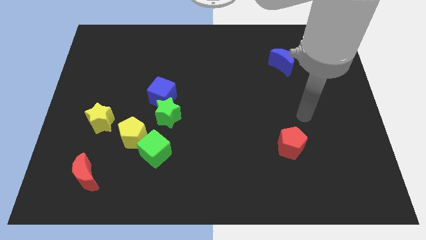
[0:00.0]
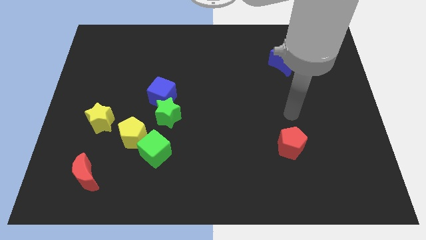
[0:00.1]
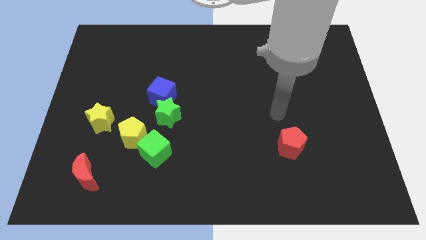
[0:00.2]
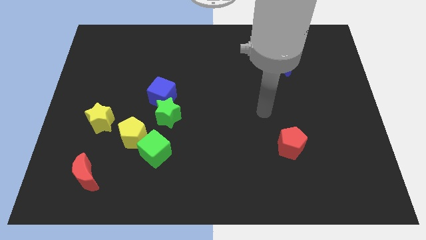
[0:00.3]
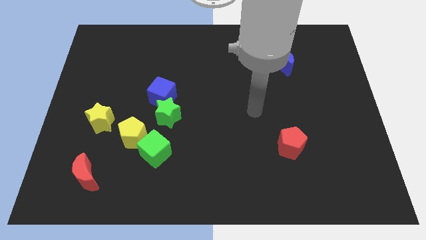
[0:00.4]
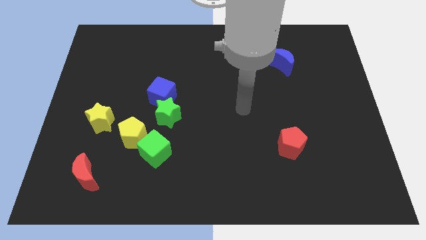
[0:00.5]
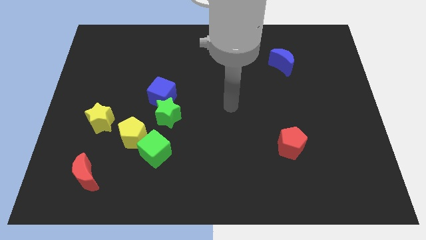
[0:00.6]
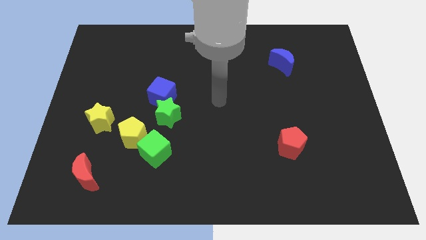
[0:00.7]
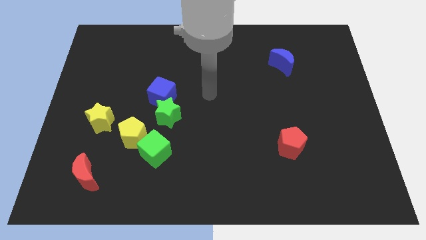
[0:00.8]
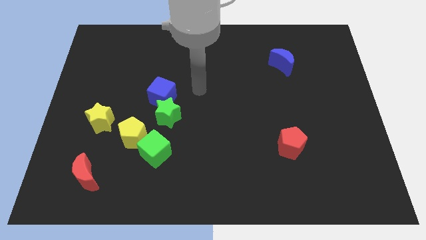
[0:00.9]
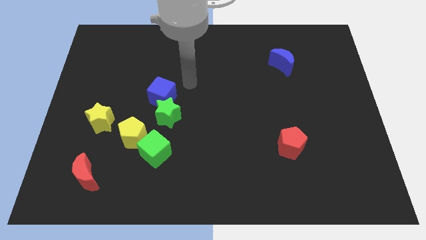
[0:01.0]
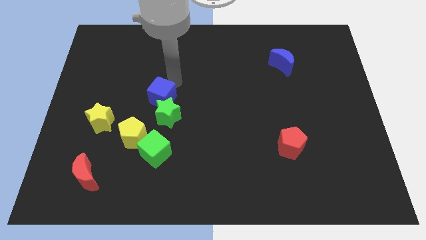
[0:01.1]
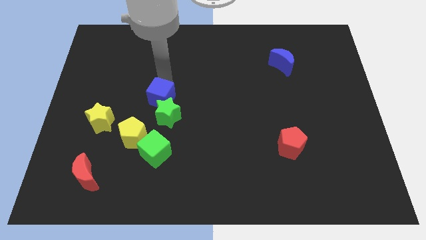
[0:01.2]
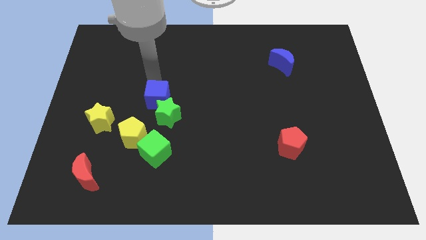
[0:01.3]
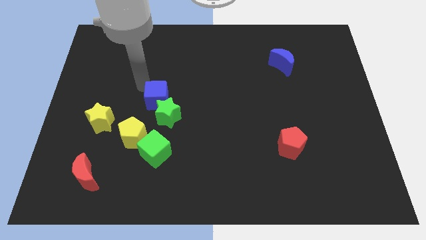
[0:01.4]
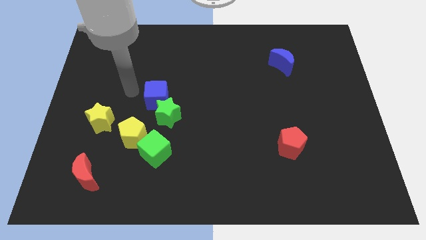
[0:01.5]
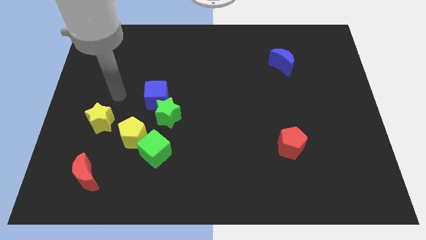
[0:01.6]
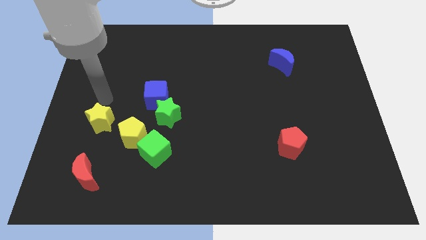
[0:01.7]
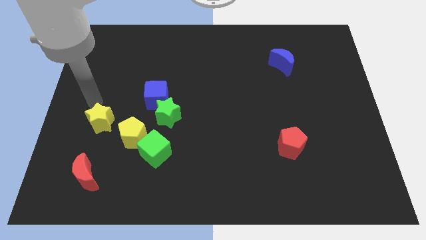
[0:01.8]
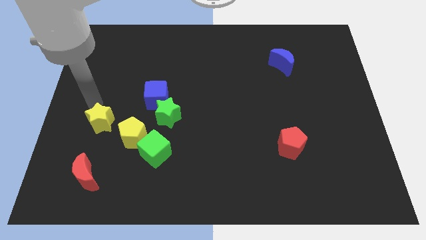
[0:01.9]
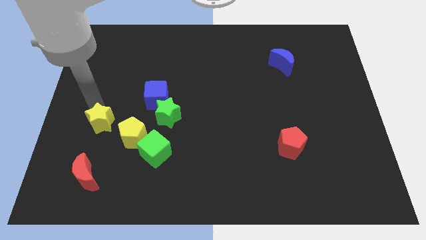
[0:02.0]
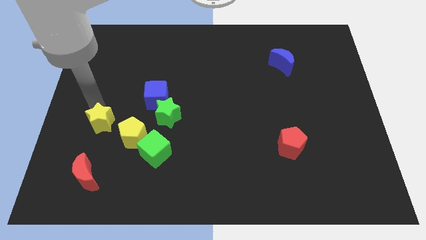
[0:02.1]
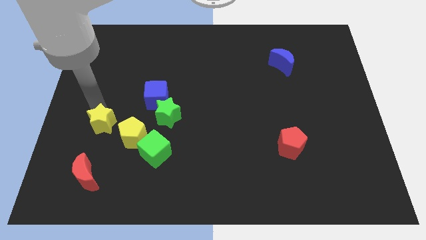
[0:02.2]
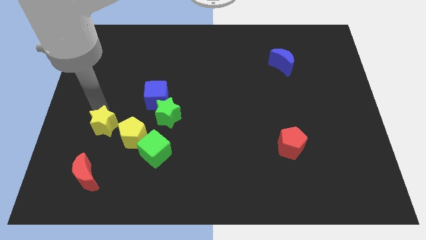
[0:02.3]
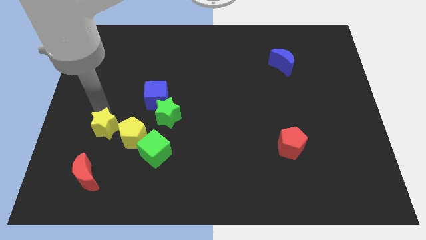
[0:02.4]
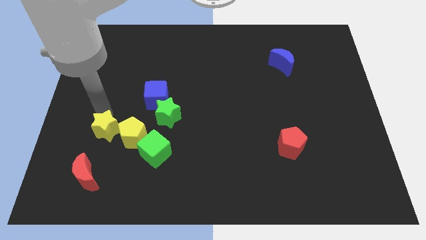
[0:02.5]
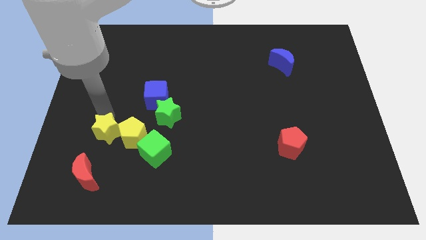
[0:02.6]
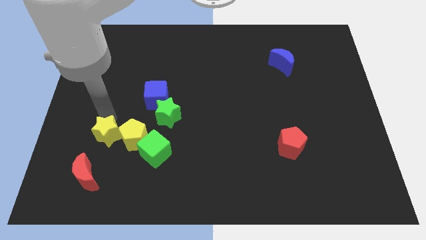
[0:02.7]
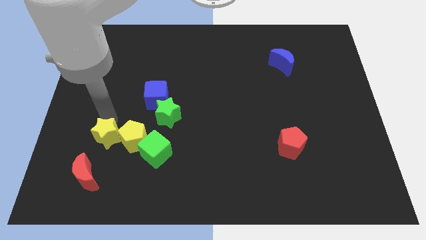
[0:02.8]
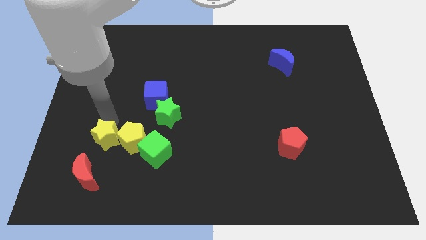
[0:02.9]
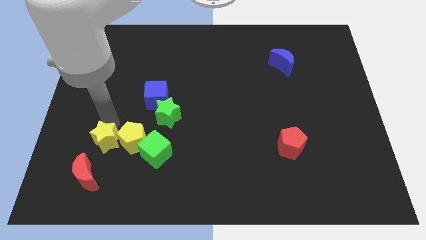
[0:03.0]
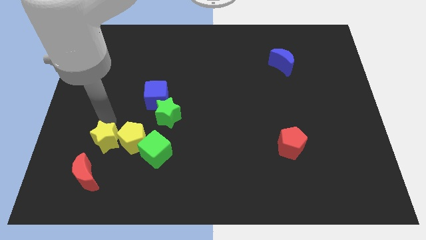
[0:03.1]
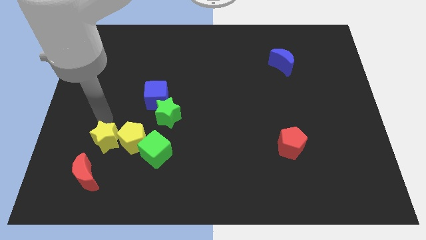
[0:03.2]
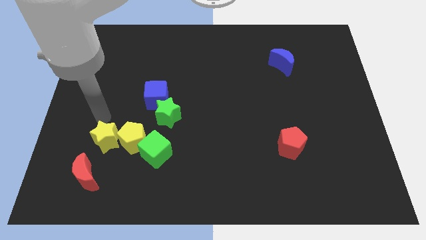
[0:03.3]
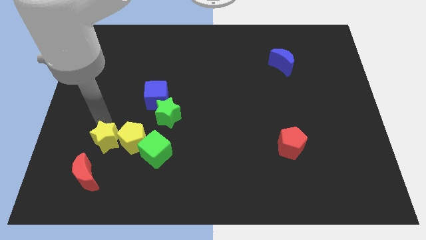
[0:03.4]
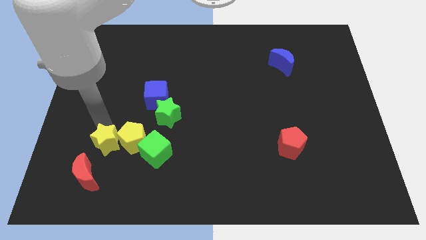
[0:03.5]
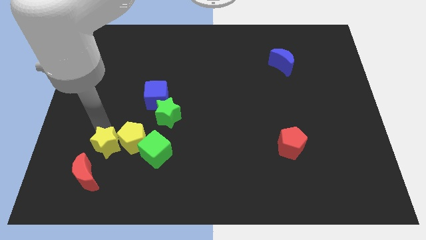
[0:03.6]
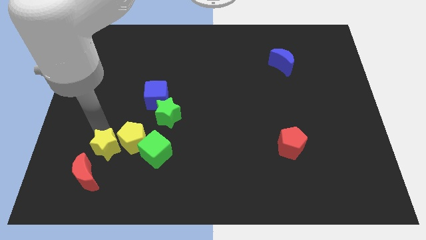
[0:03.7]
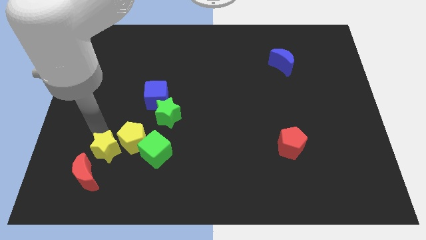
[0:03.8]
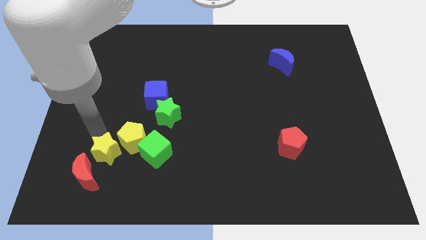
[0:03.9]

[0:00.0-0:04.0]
move the yellow star diagonally down and to the right a little bit

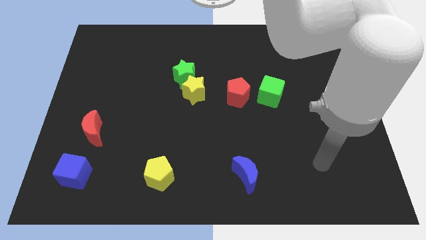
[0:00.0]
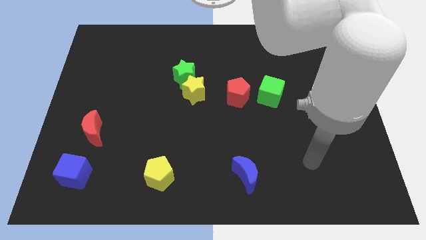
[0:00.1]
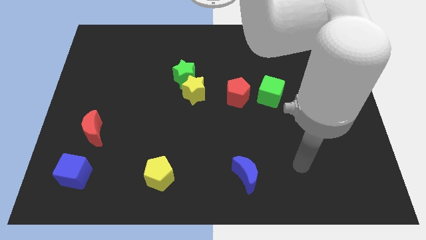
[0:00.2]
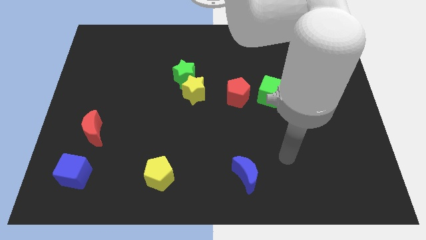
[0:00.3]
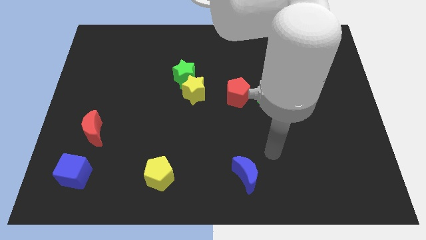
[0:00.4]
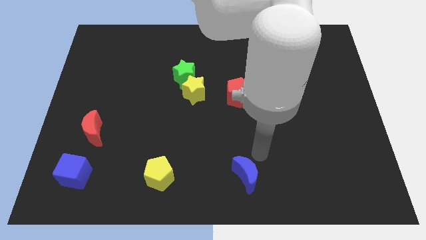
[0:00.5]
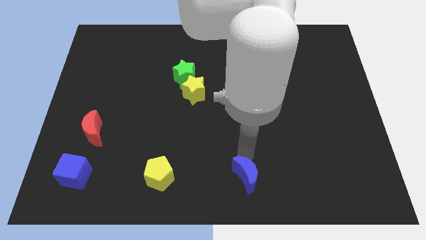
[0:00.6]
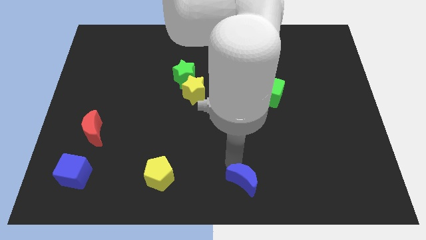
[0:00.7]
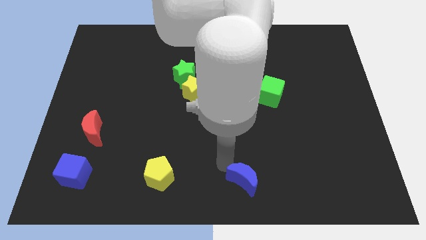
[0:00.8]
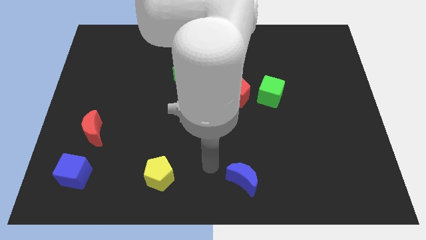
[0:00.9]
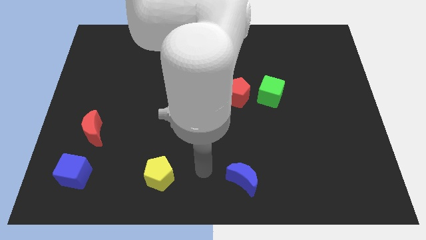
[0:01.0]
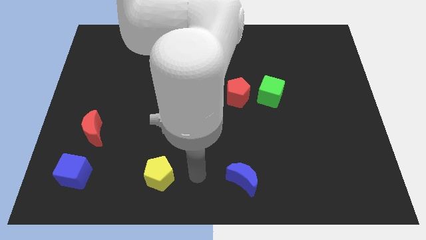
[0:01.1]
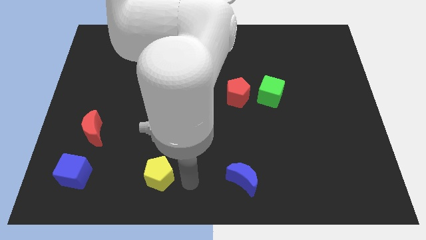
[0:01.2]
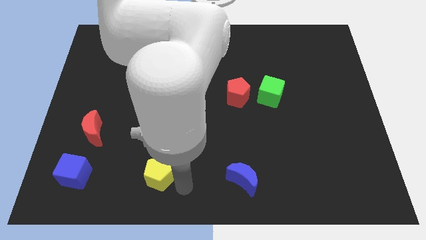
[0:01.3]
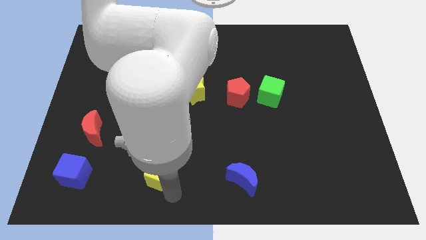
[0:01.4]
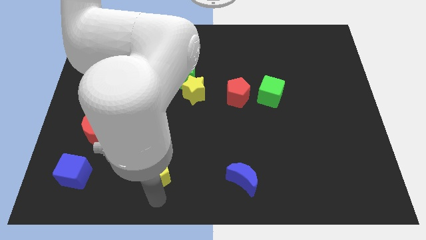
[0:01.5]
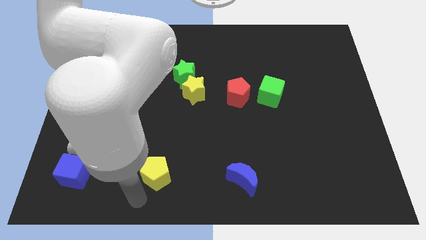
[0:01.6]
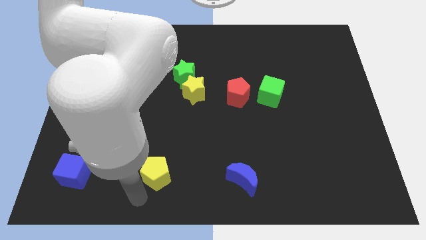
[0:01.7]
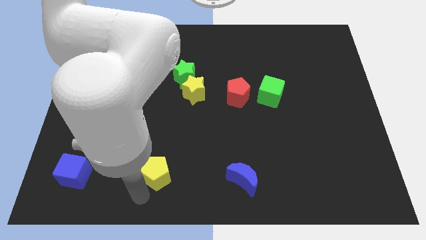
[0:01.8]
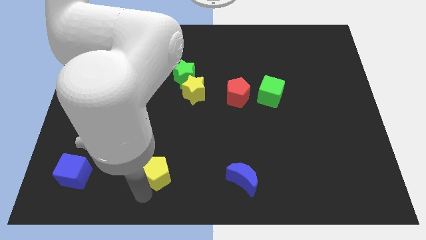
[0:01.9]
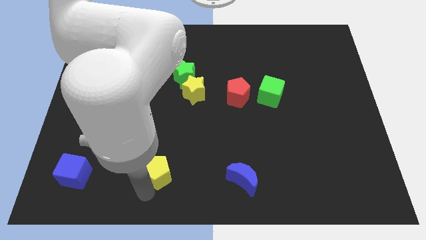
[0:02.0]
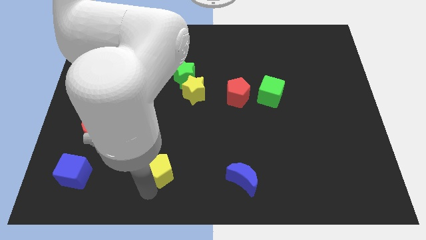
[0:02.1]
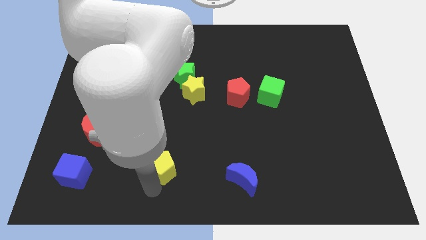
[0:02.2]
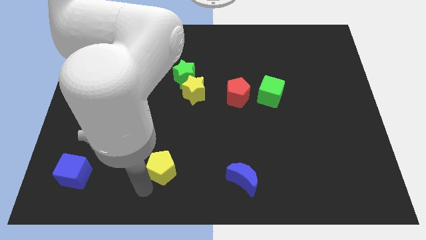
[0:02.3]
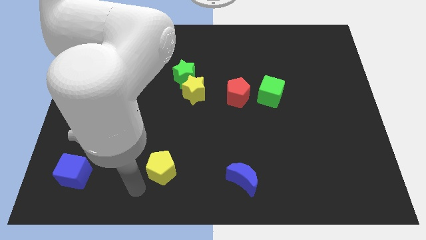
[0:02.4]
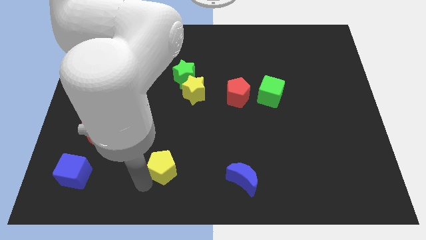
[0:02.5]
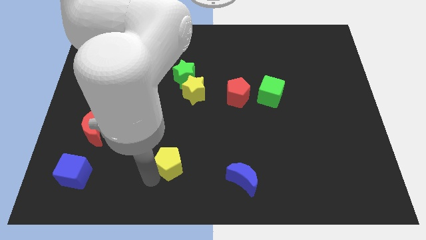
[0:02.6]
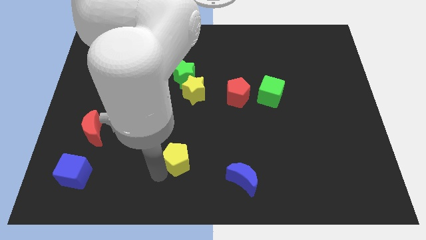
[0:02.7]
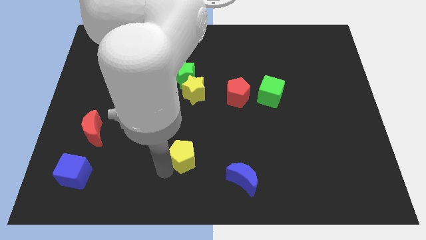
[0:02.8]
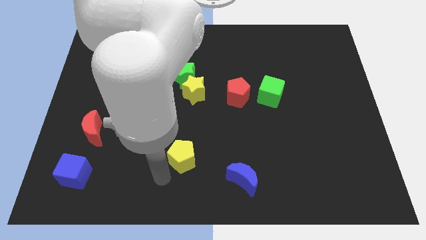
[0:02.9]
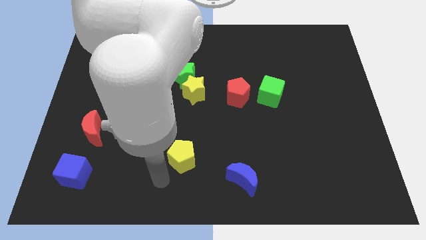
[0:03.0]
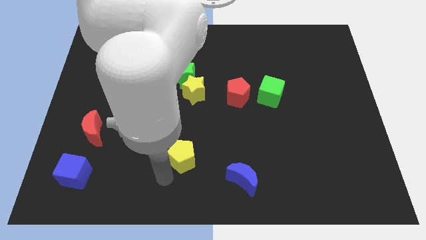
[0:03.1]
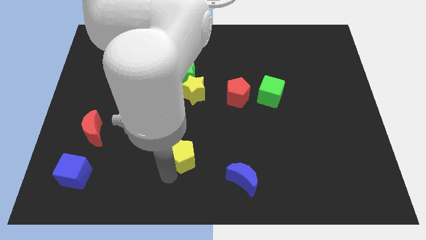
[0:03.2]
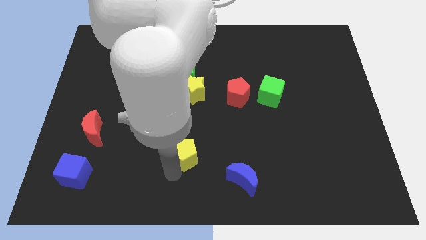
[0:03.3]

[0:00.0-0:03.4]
move the yellow pentagon diagonally upwards and to the right a bit

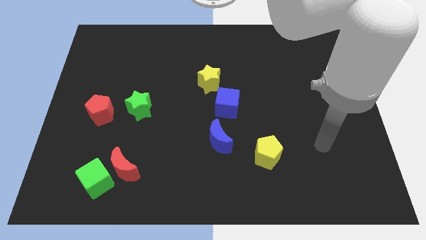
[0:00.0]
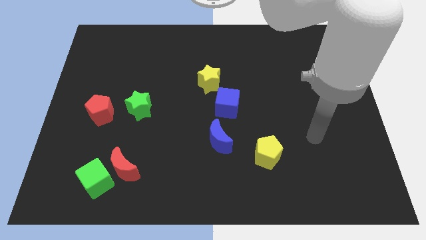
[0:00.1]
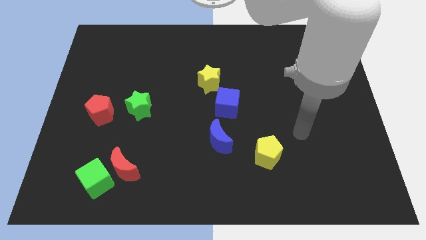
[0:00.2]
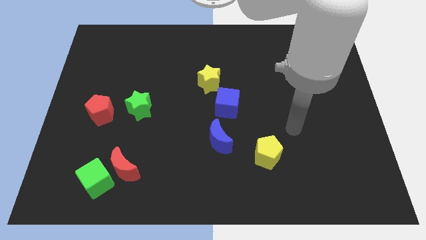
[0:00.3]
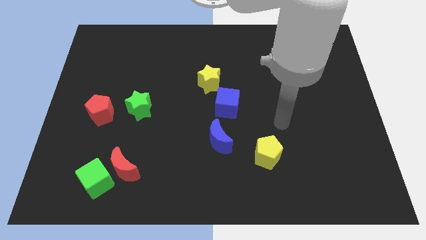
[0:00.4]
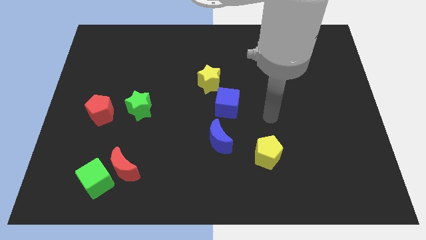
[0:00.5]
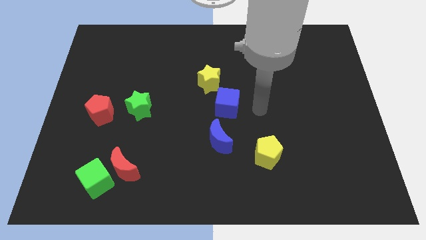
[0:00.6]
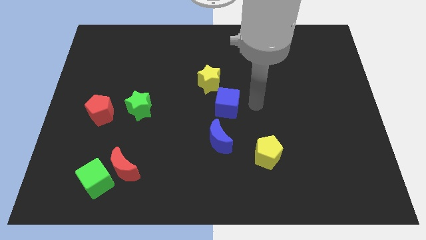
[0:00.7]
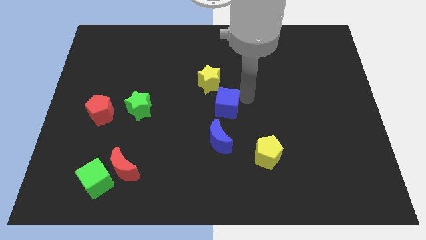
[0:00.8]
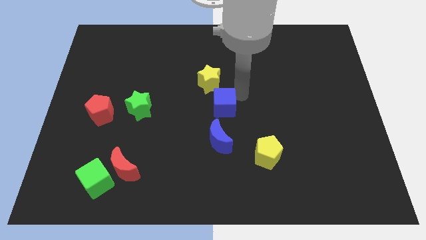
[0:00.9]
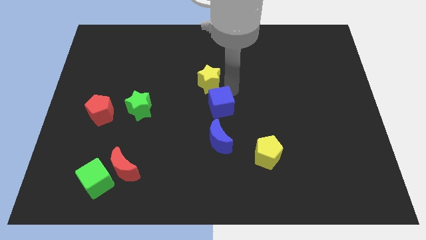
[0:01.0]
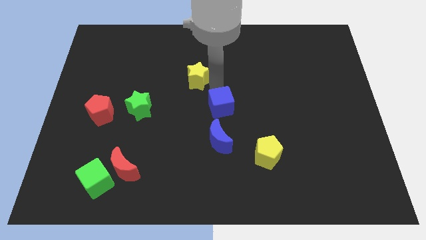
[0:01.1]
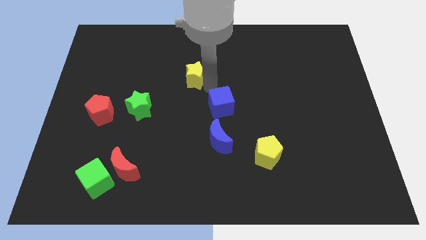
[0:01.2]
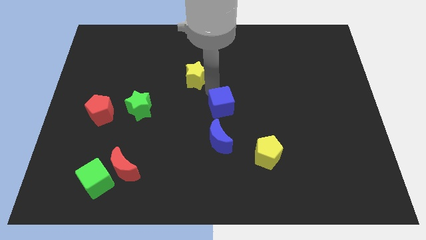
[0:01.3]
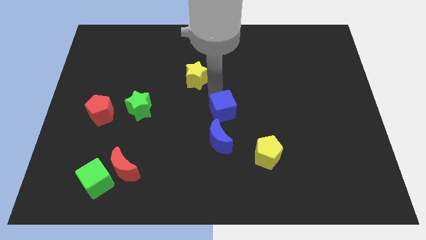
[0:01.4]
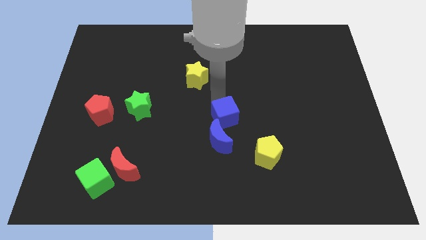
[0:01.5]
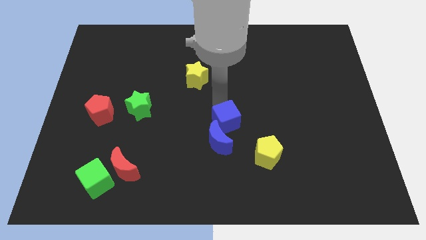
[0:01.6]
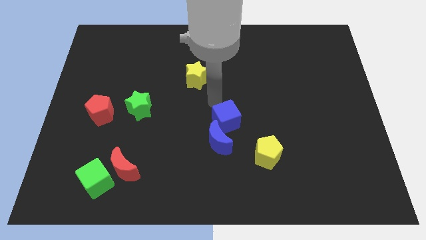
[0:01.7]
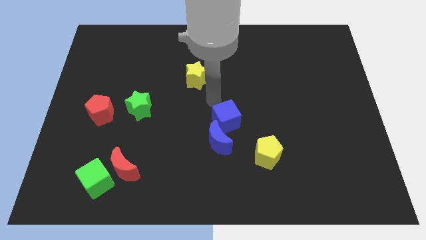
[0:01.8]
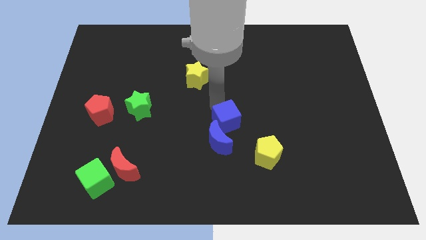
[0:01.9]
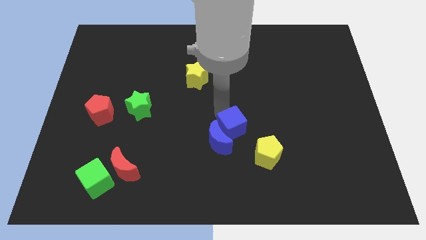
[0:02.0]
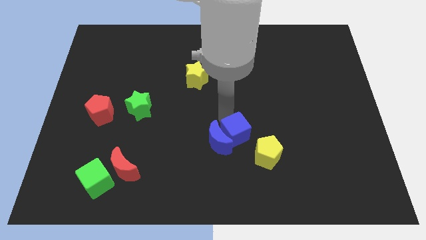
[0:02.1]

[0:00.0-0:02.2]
slightly move the blue cube downwards
